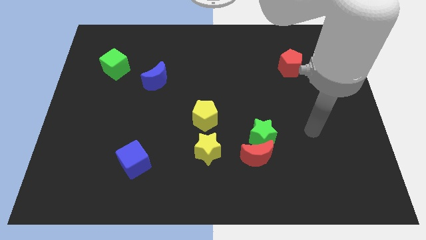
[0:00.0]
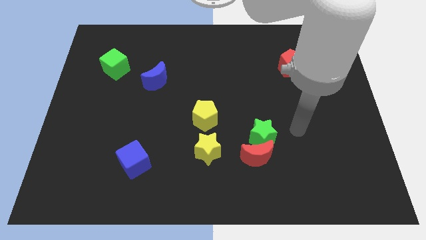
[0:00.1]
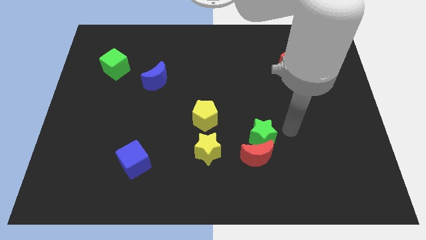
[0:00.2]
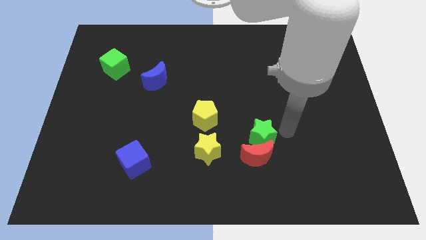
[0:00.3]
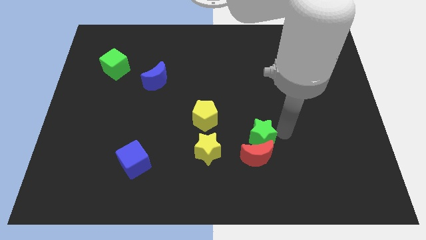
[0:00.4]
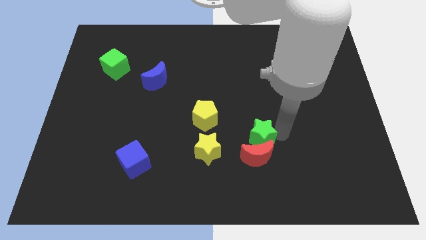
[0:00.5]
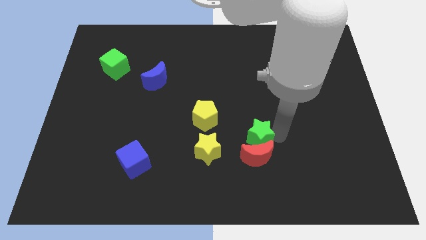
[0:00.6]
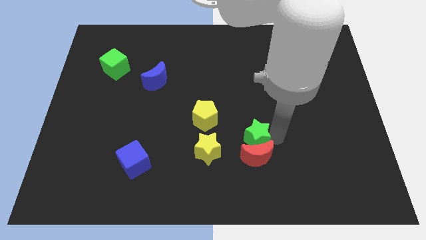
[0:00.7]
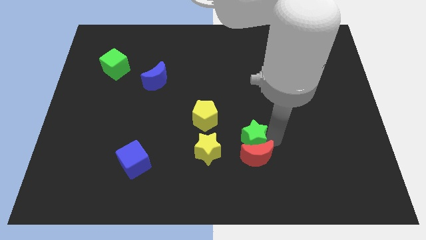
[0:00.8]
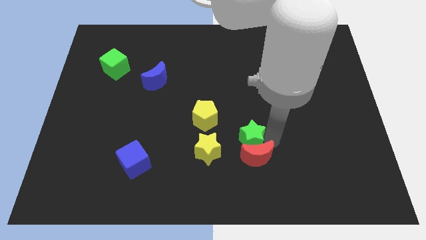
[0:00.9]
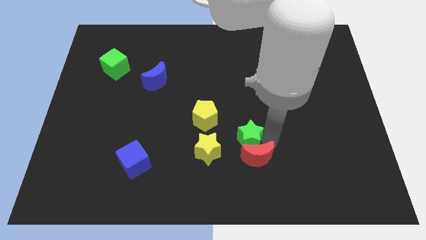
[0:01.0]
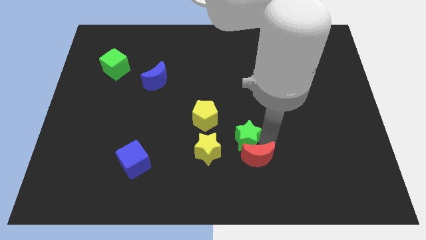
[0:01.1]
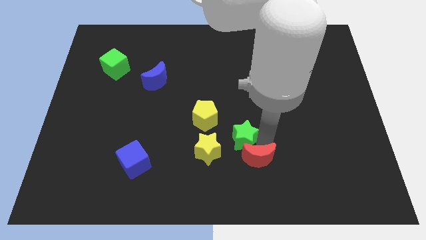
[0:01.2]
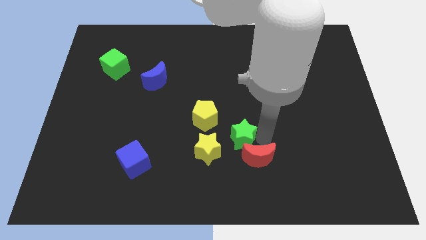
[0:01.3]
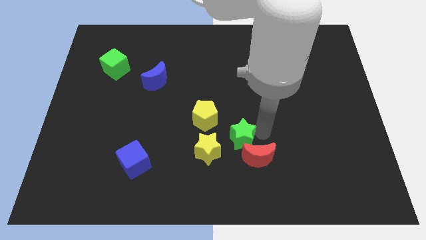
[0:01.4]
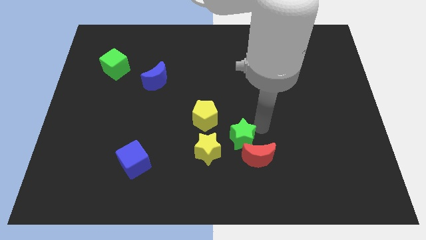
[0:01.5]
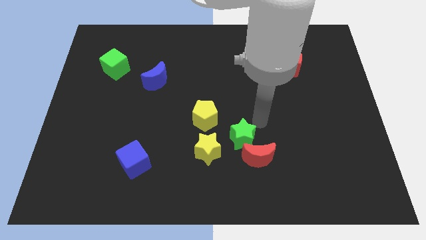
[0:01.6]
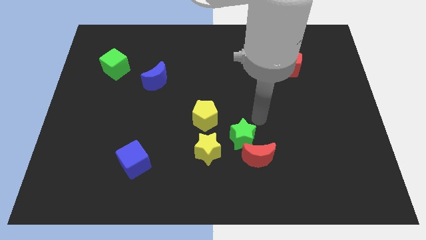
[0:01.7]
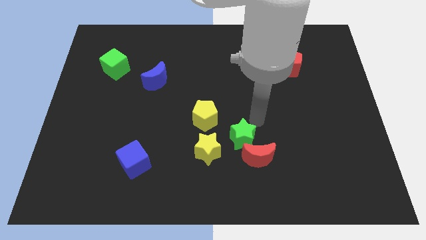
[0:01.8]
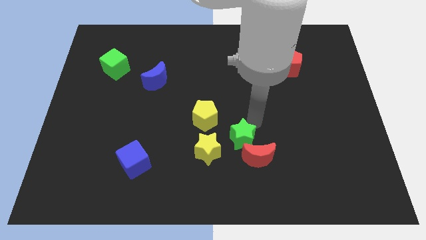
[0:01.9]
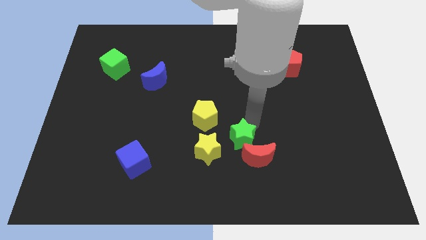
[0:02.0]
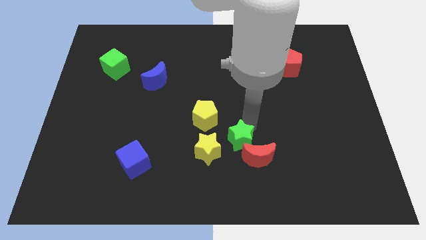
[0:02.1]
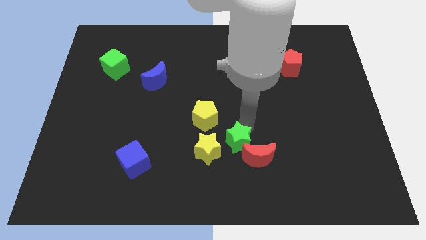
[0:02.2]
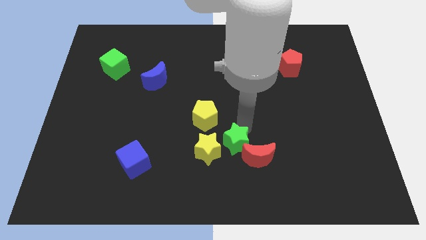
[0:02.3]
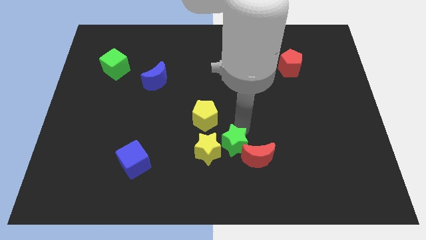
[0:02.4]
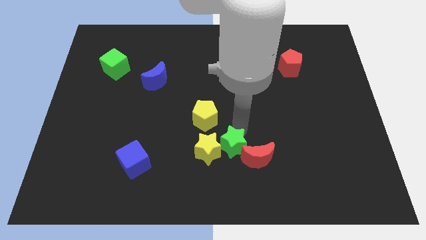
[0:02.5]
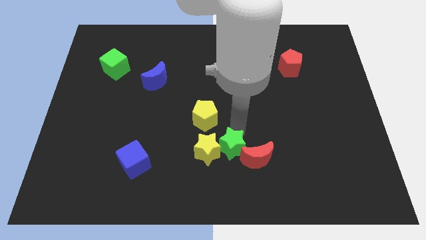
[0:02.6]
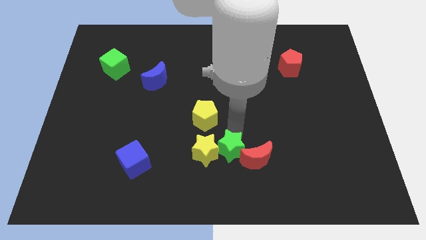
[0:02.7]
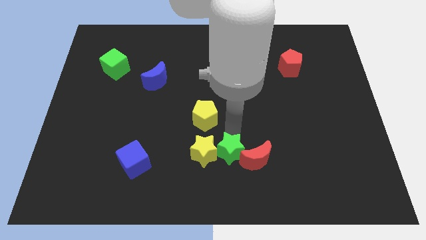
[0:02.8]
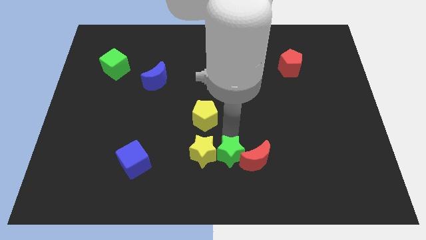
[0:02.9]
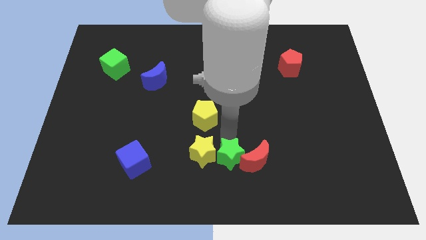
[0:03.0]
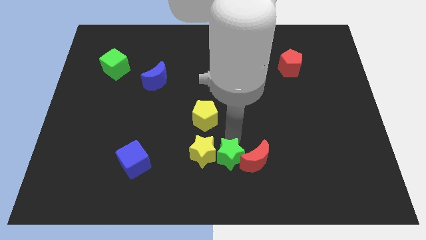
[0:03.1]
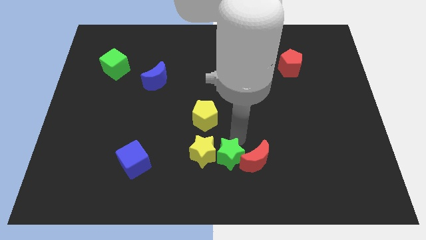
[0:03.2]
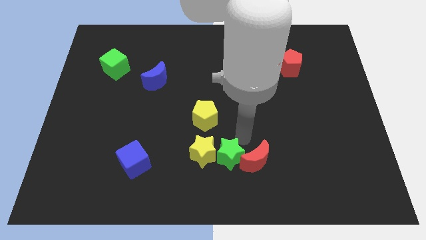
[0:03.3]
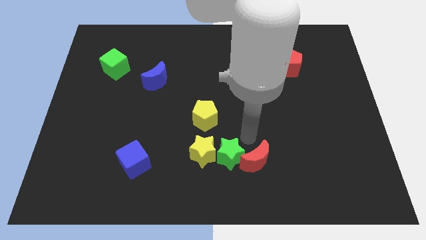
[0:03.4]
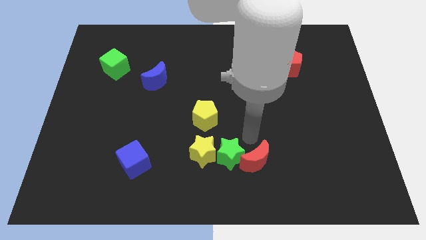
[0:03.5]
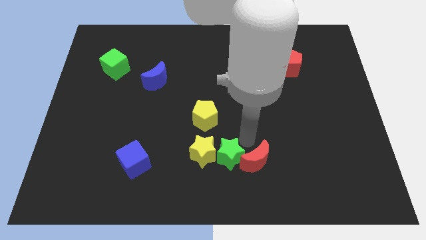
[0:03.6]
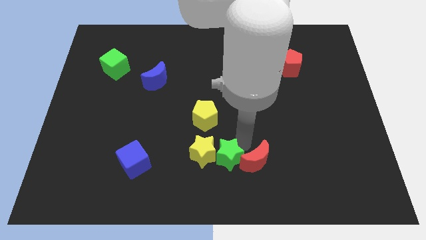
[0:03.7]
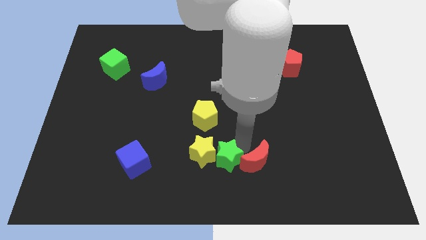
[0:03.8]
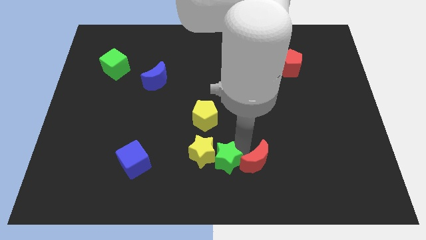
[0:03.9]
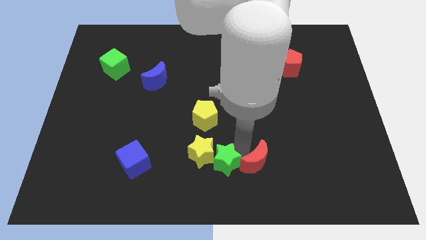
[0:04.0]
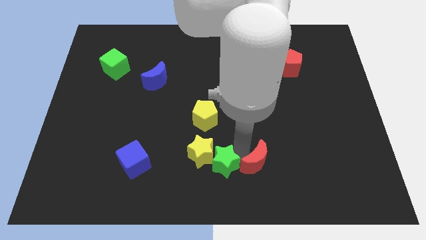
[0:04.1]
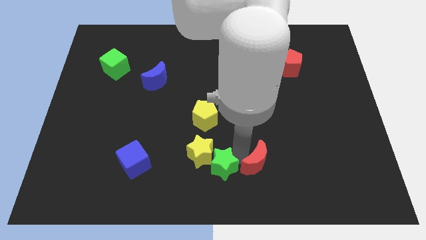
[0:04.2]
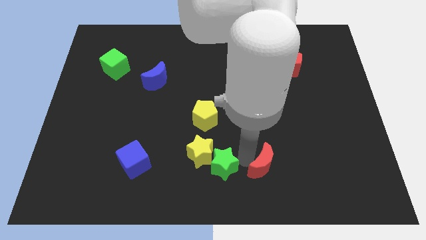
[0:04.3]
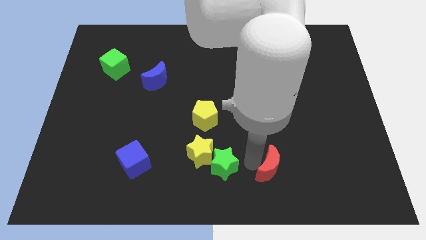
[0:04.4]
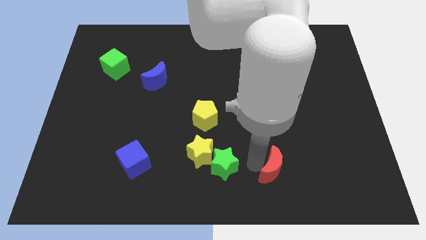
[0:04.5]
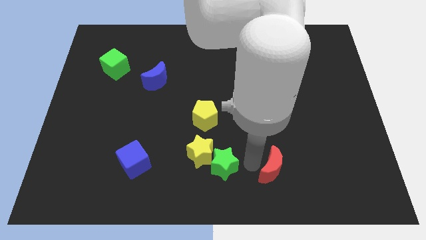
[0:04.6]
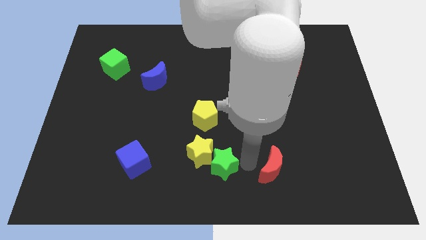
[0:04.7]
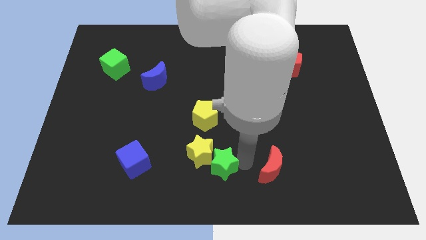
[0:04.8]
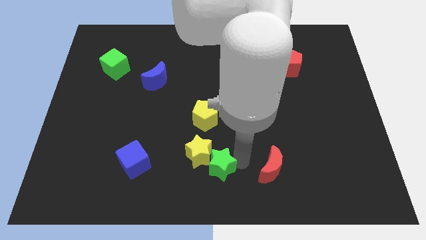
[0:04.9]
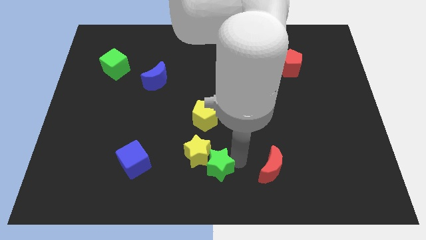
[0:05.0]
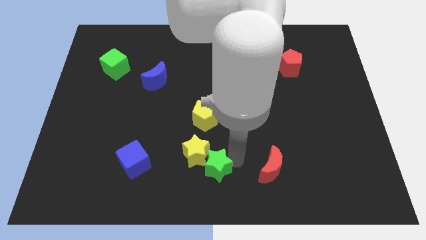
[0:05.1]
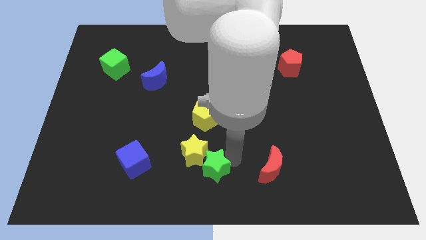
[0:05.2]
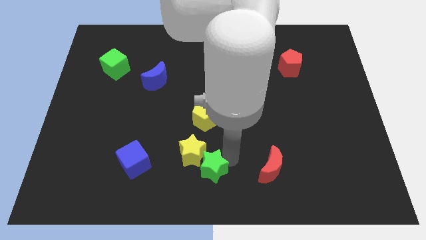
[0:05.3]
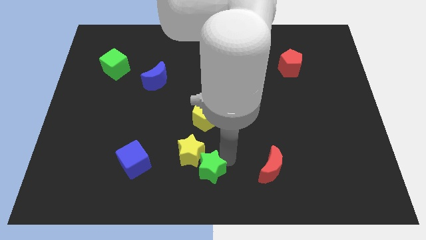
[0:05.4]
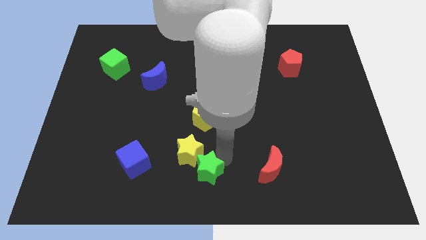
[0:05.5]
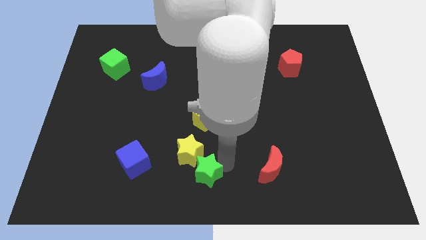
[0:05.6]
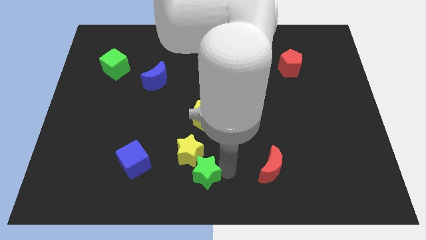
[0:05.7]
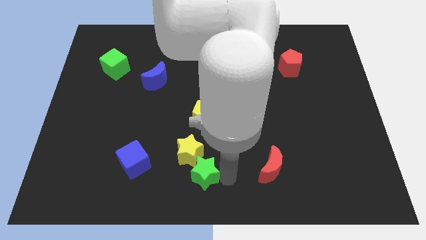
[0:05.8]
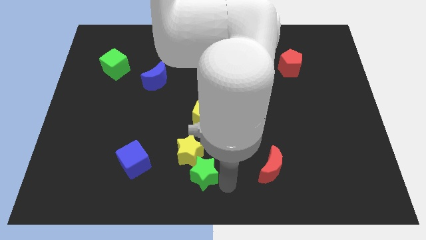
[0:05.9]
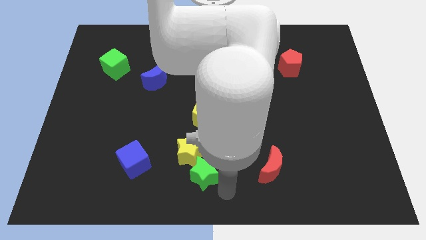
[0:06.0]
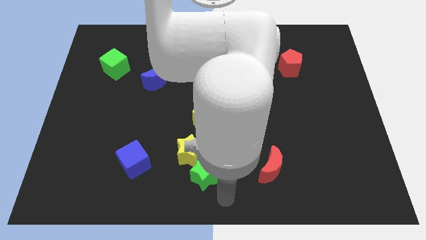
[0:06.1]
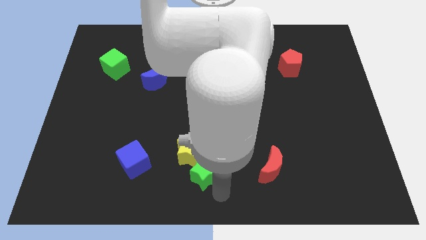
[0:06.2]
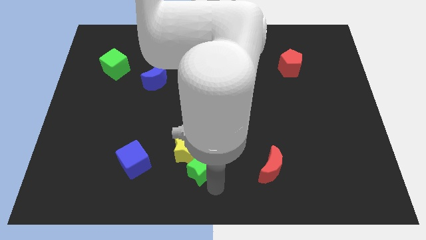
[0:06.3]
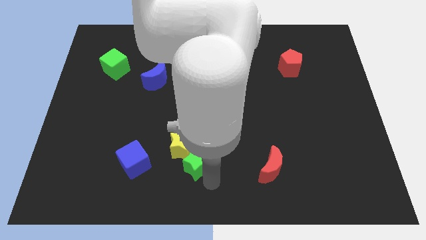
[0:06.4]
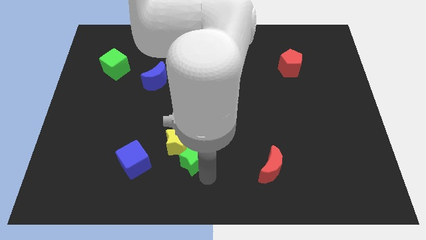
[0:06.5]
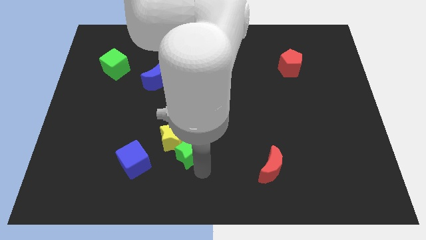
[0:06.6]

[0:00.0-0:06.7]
move the green star to the bottom left of the yellow pentagon

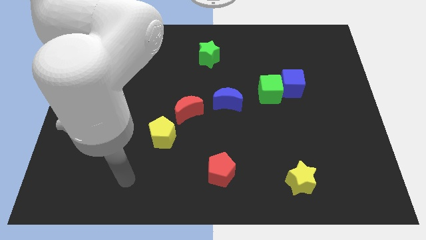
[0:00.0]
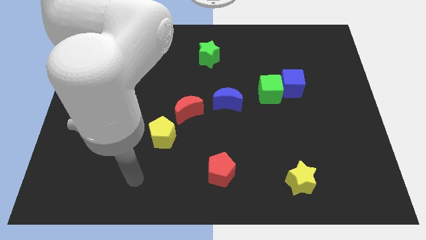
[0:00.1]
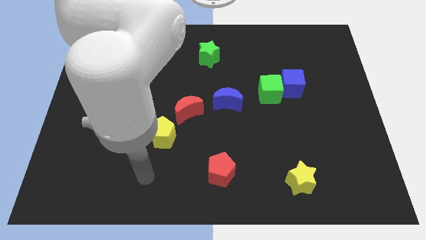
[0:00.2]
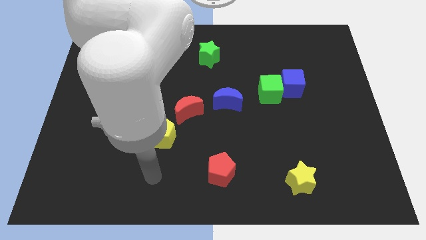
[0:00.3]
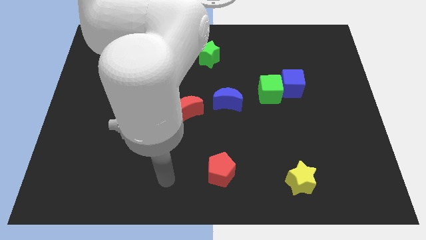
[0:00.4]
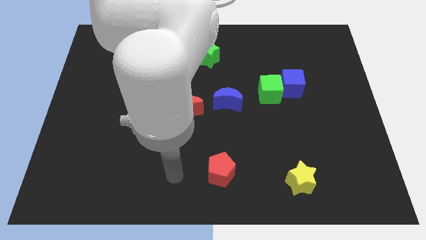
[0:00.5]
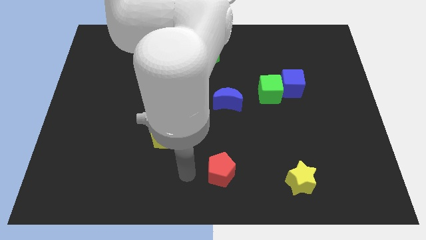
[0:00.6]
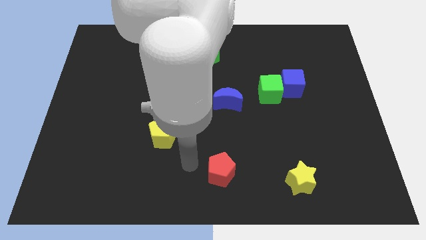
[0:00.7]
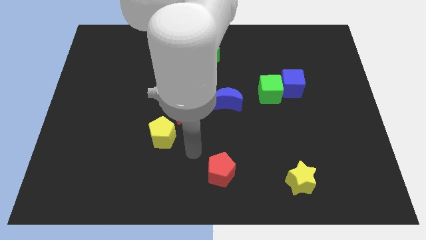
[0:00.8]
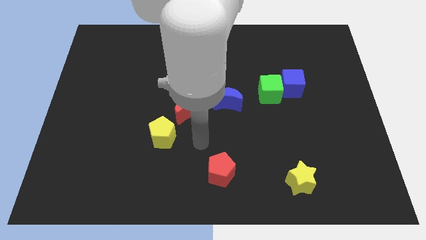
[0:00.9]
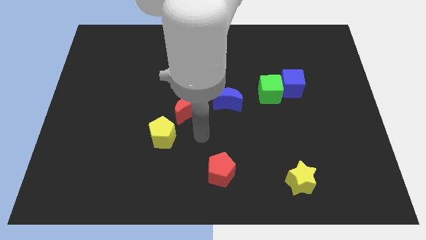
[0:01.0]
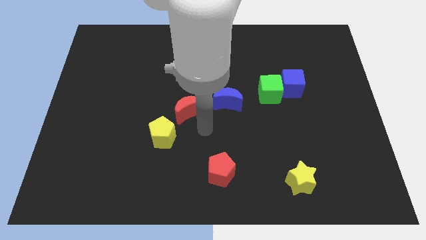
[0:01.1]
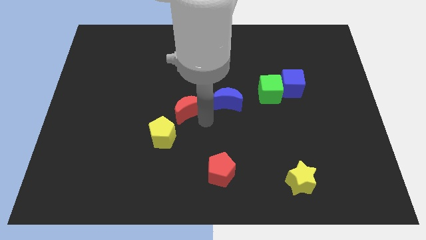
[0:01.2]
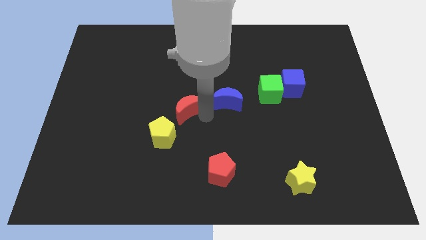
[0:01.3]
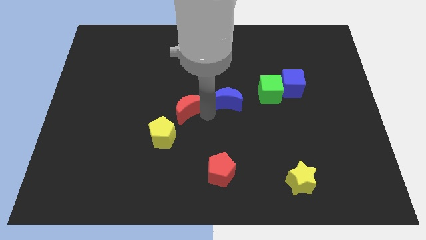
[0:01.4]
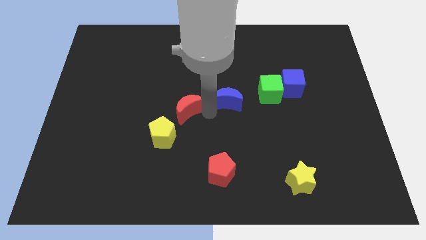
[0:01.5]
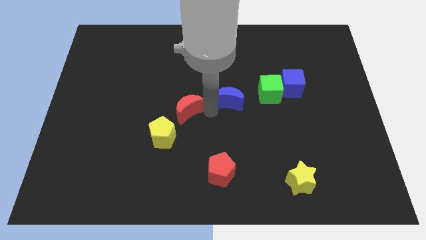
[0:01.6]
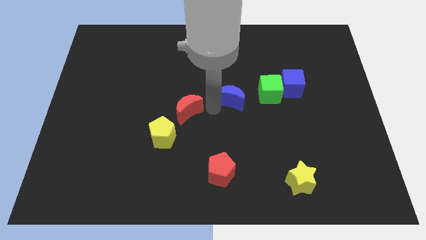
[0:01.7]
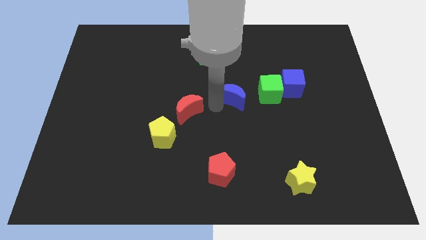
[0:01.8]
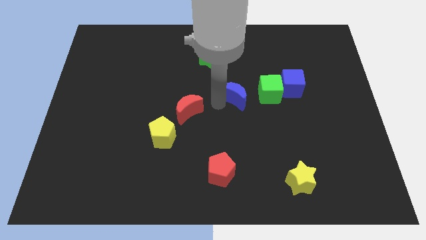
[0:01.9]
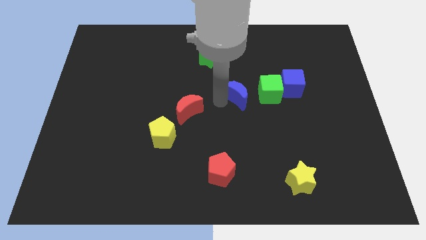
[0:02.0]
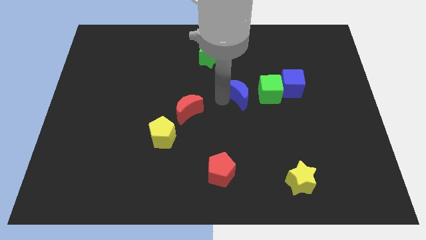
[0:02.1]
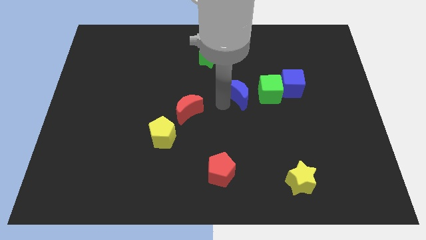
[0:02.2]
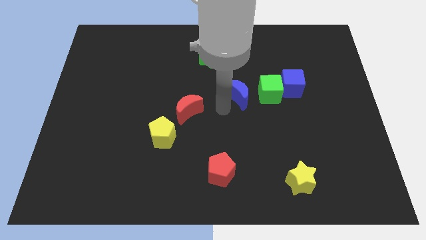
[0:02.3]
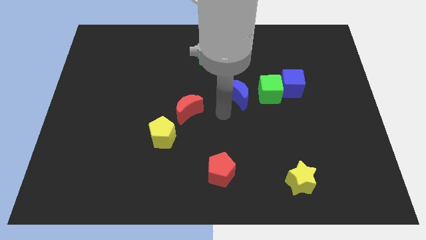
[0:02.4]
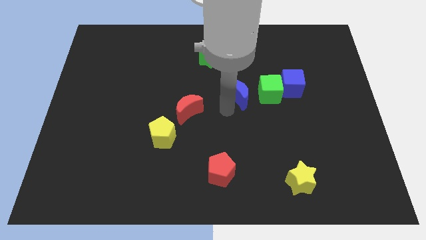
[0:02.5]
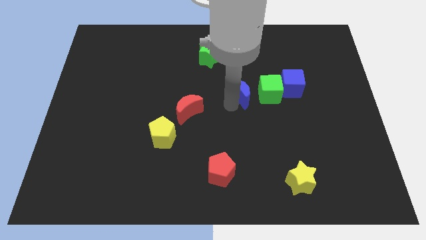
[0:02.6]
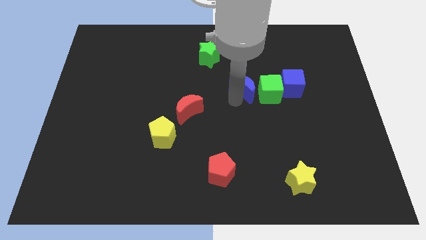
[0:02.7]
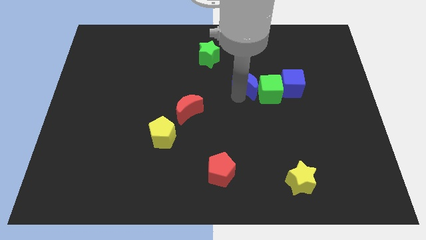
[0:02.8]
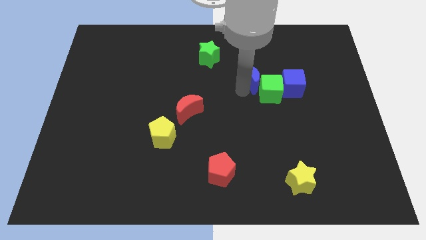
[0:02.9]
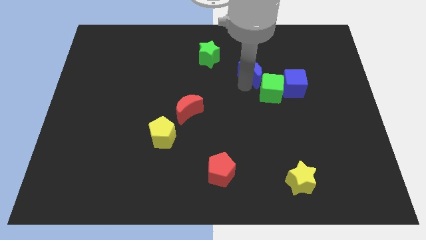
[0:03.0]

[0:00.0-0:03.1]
push the blue moon diagonally up and to the left of the blue cube
